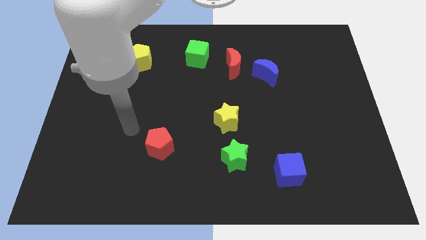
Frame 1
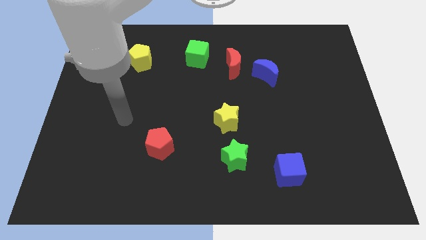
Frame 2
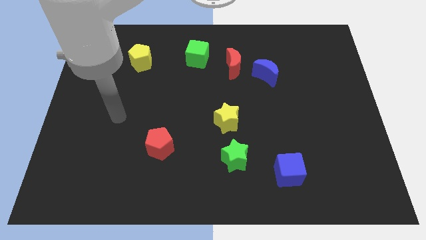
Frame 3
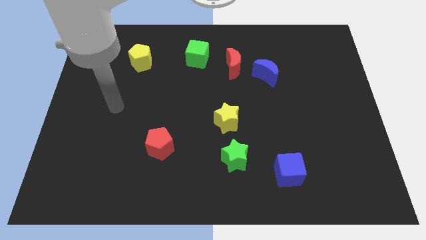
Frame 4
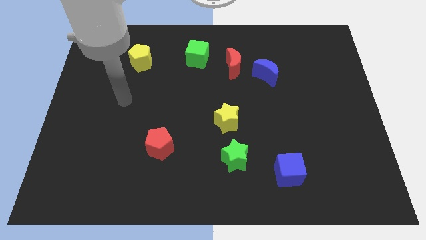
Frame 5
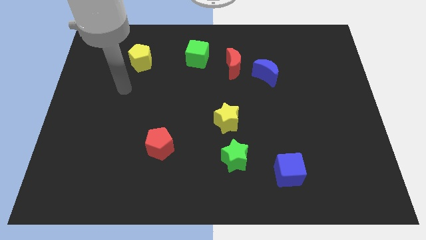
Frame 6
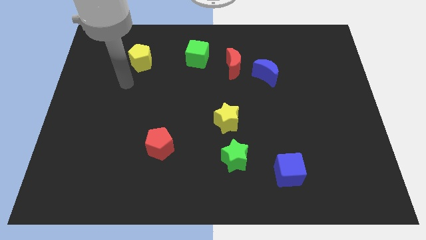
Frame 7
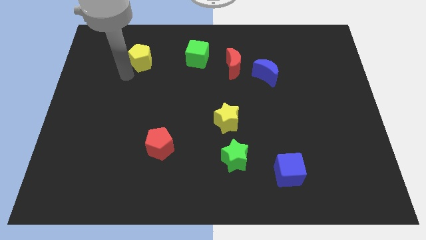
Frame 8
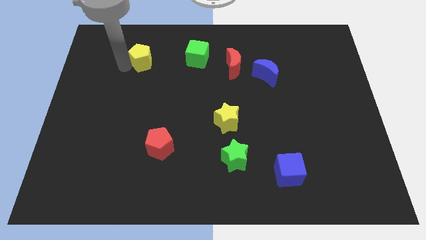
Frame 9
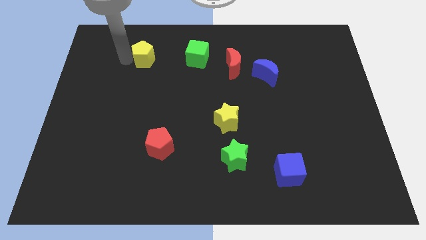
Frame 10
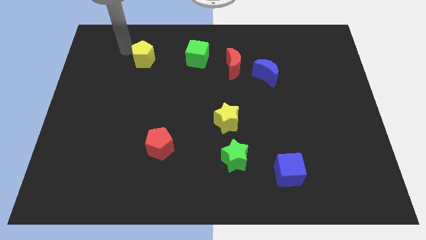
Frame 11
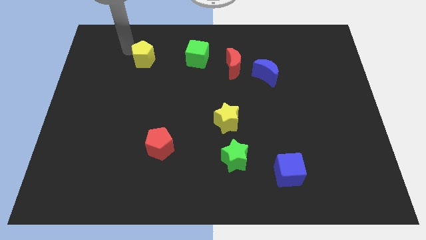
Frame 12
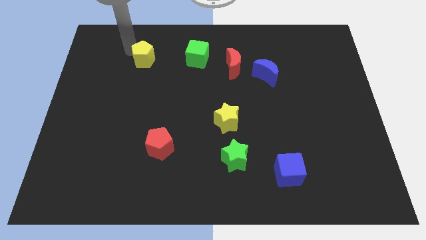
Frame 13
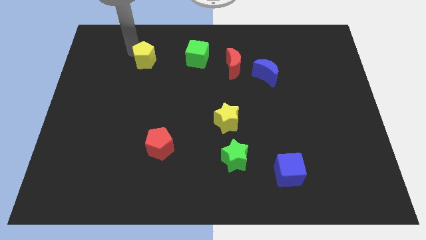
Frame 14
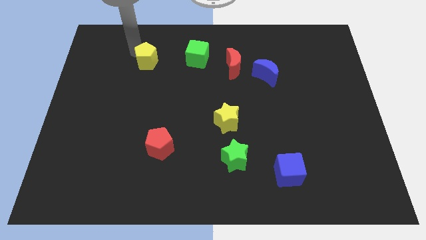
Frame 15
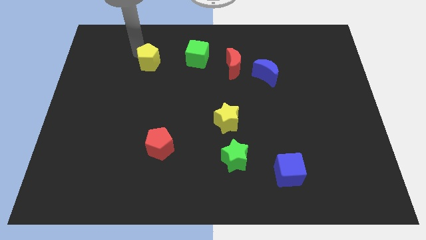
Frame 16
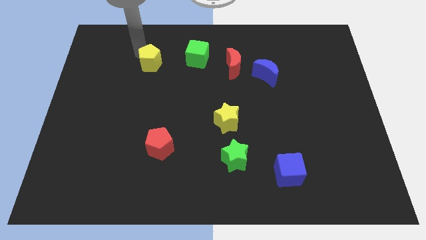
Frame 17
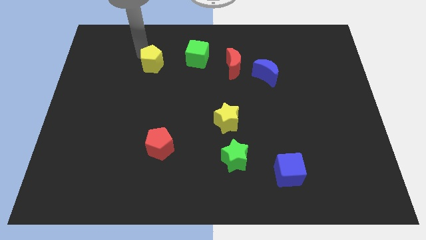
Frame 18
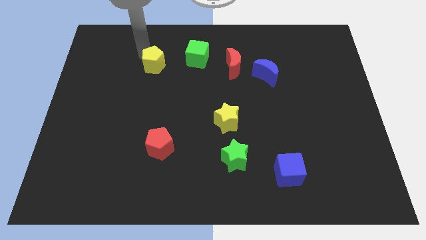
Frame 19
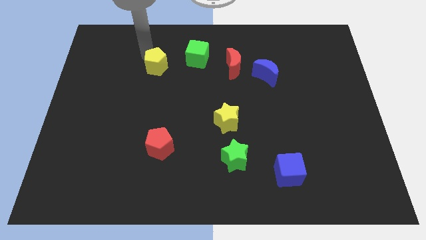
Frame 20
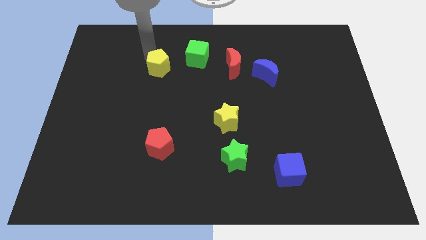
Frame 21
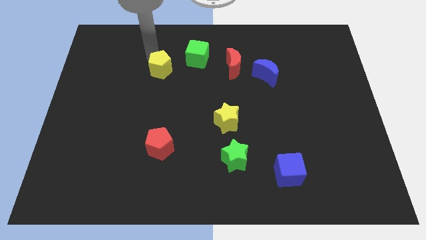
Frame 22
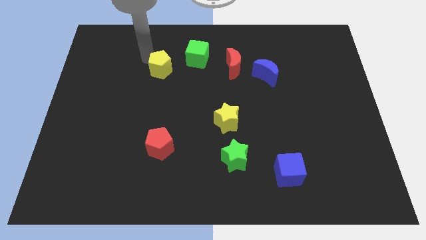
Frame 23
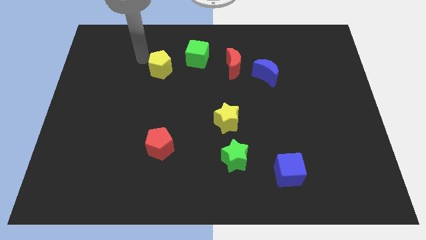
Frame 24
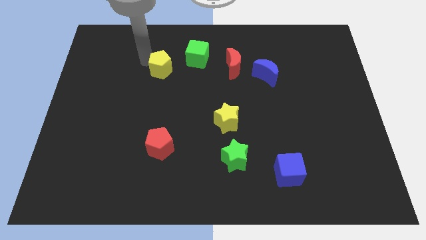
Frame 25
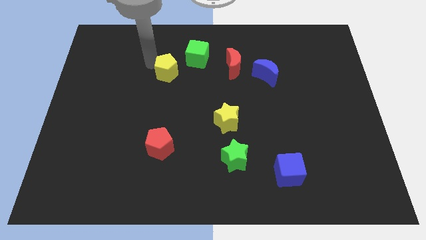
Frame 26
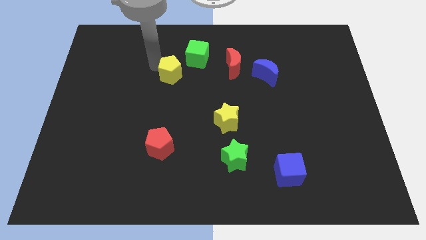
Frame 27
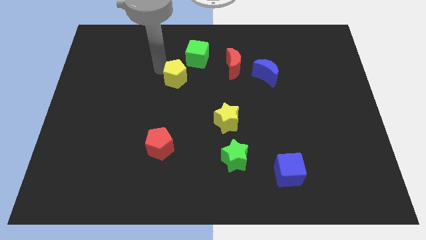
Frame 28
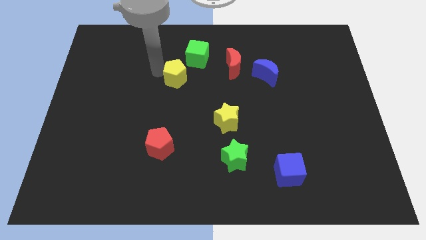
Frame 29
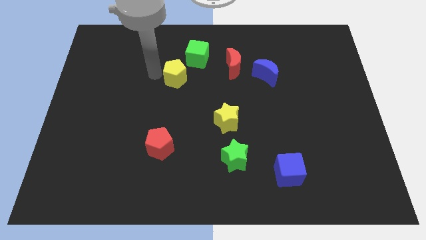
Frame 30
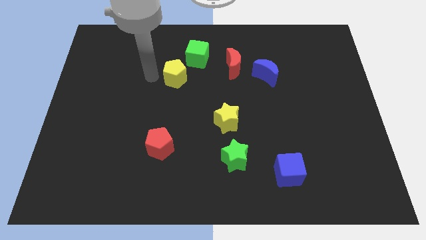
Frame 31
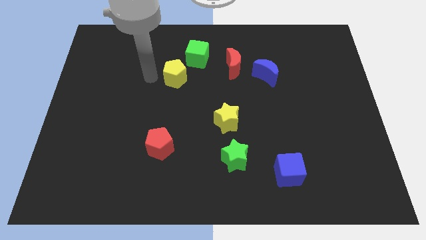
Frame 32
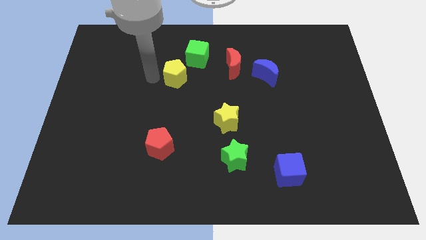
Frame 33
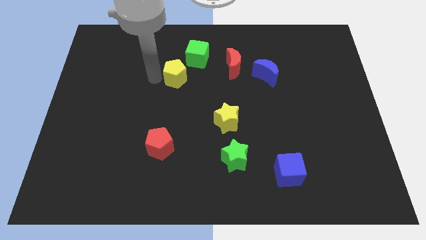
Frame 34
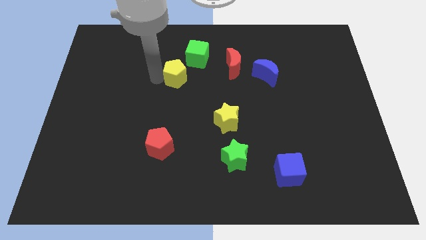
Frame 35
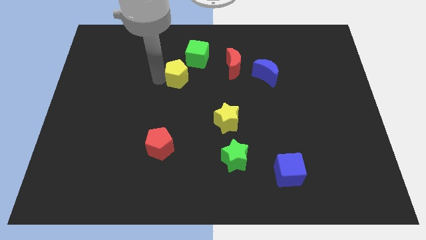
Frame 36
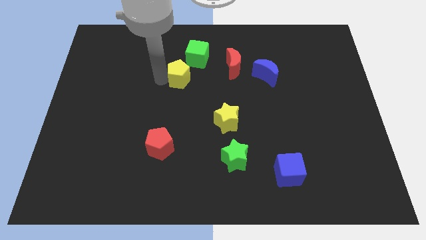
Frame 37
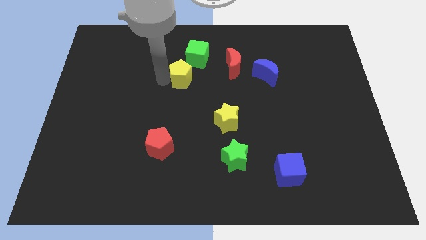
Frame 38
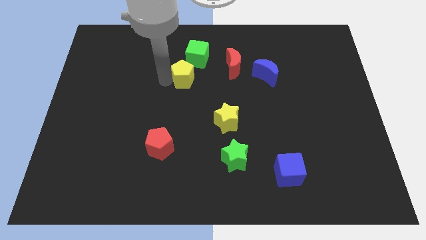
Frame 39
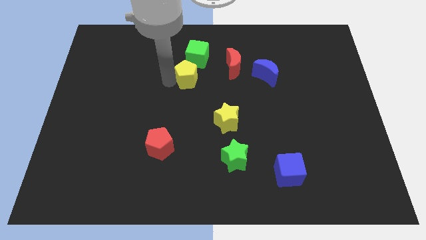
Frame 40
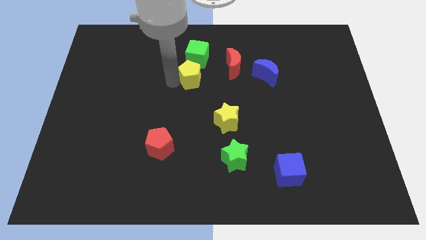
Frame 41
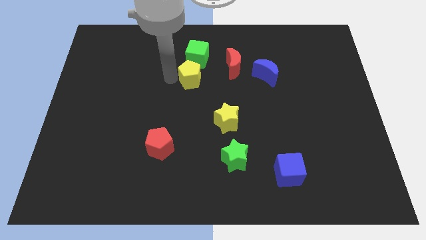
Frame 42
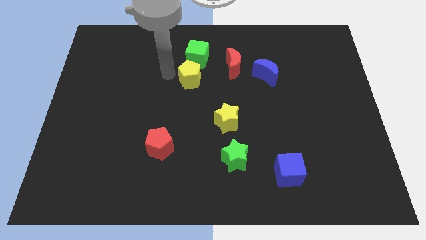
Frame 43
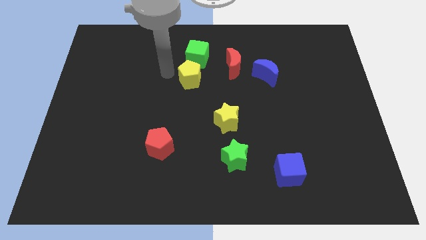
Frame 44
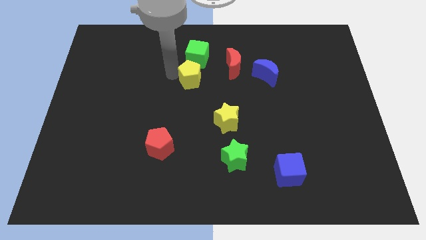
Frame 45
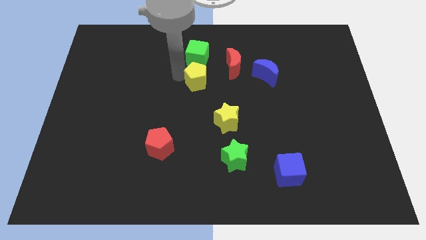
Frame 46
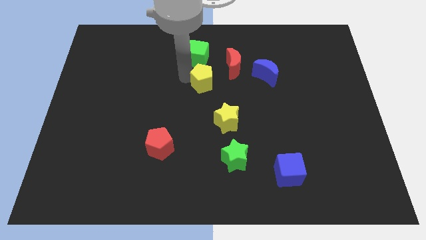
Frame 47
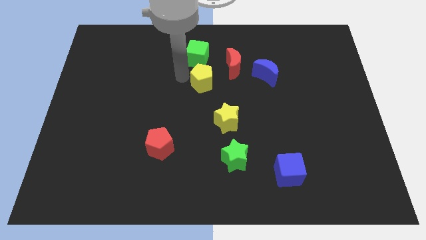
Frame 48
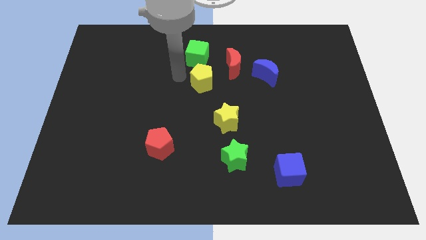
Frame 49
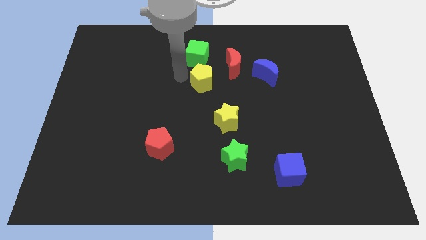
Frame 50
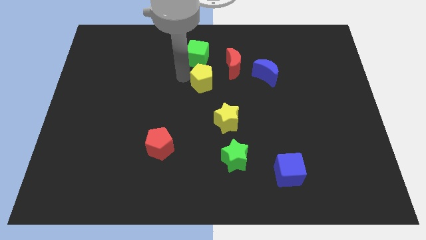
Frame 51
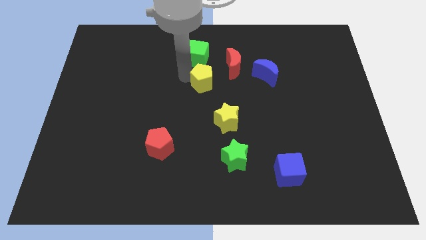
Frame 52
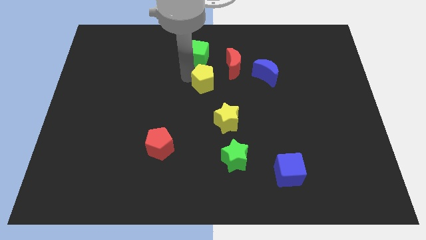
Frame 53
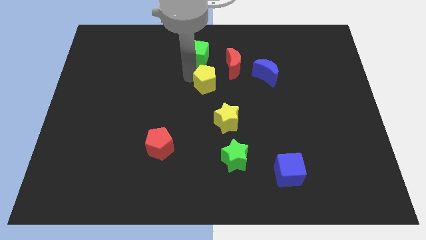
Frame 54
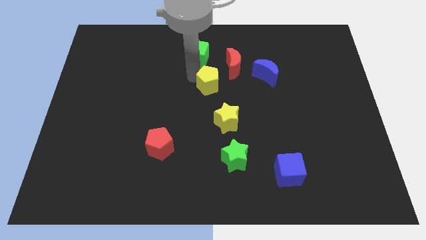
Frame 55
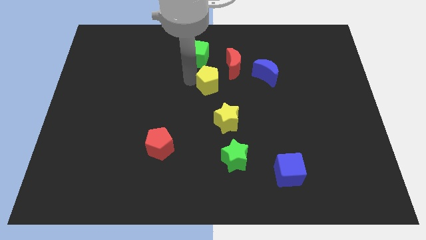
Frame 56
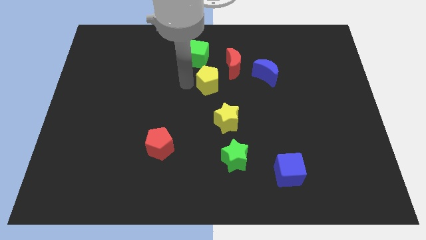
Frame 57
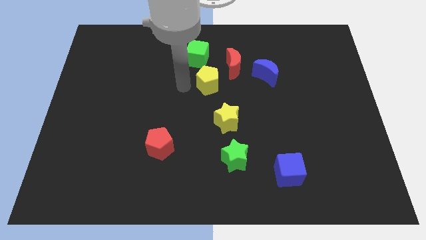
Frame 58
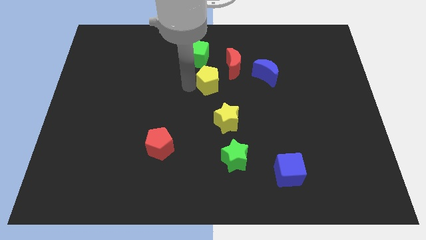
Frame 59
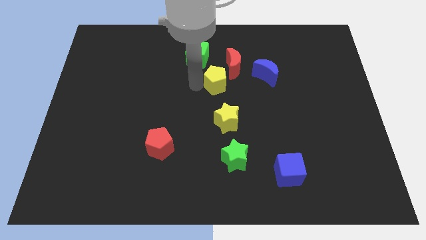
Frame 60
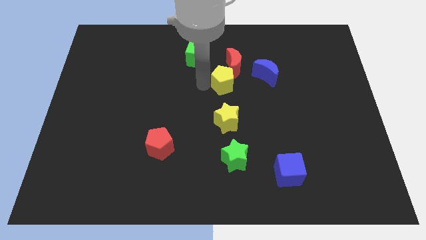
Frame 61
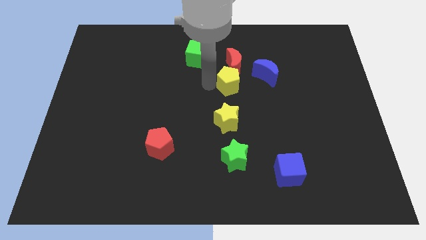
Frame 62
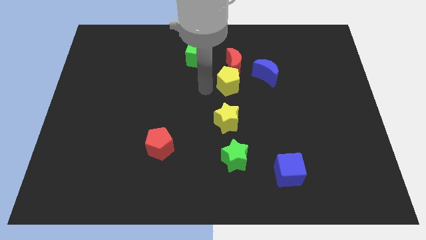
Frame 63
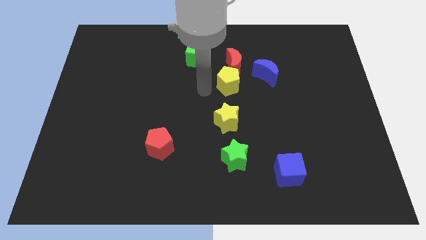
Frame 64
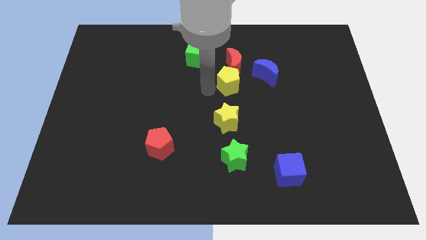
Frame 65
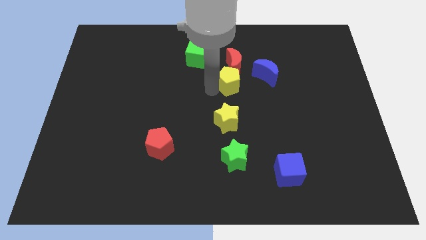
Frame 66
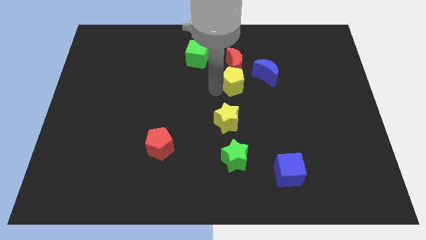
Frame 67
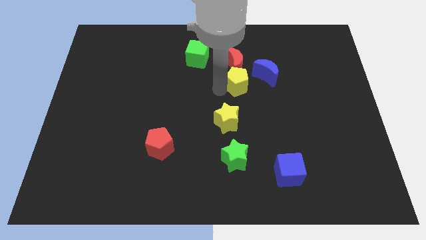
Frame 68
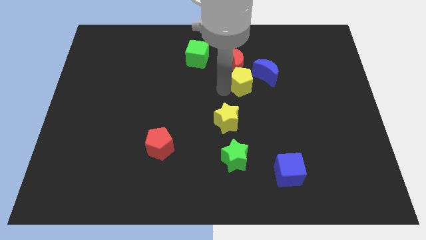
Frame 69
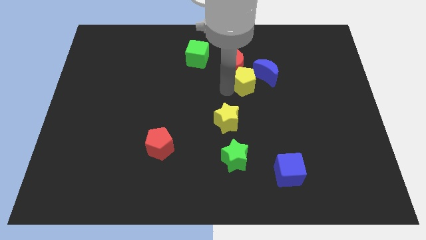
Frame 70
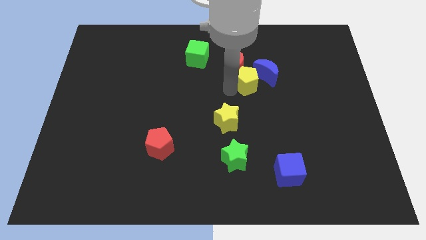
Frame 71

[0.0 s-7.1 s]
put the yellow pentagon close to the blue moon
